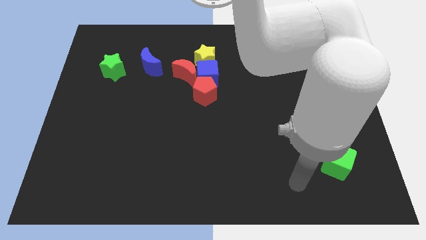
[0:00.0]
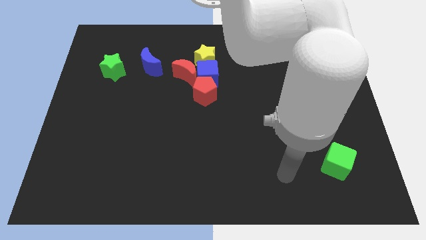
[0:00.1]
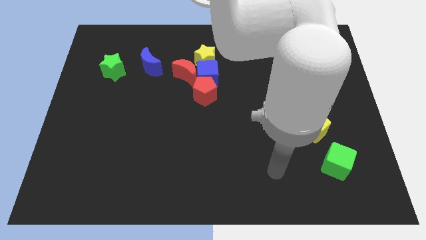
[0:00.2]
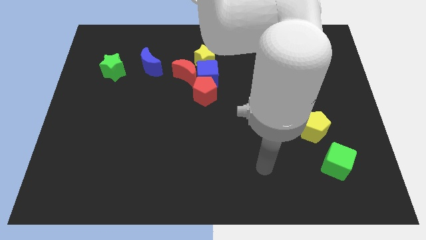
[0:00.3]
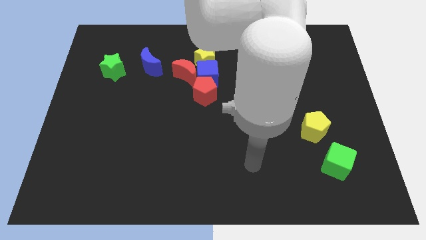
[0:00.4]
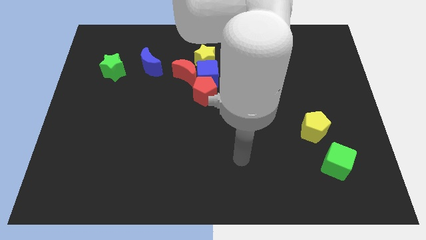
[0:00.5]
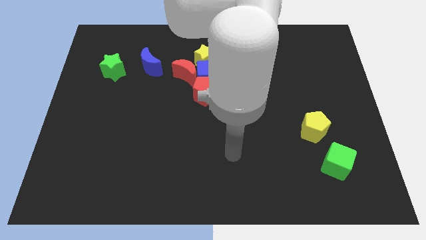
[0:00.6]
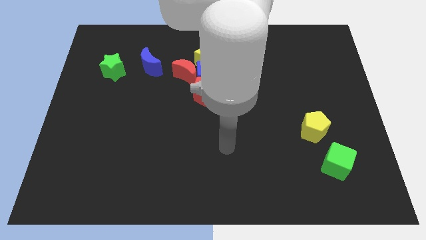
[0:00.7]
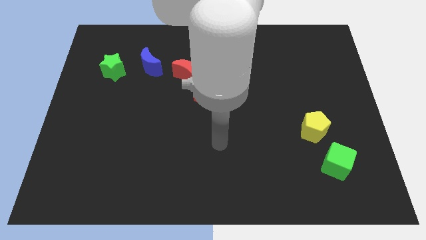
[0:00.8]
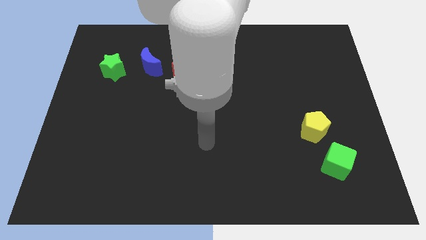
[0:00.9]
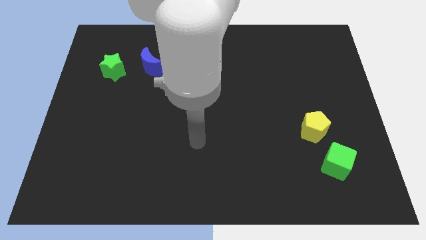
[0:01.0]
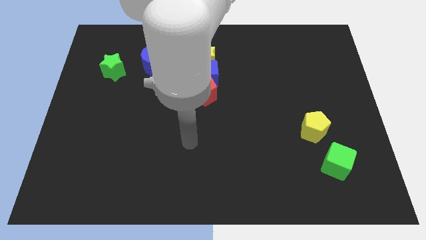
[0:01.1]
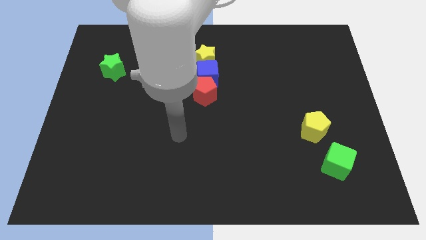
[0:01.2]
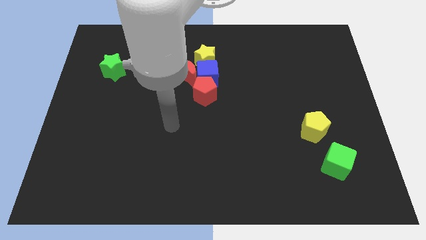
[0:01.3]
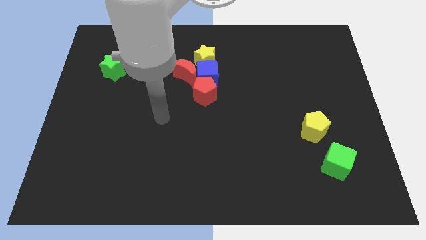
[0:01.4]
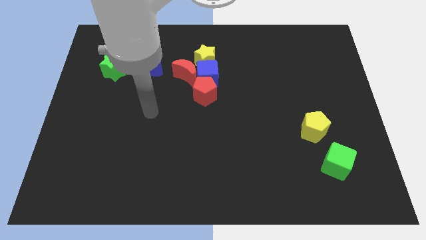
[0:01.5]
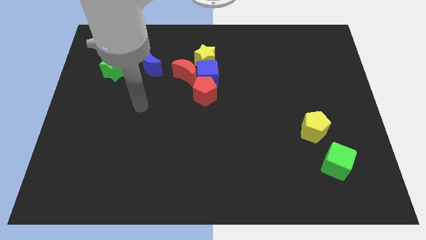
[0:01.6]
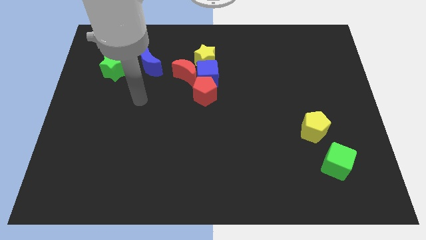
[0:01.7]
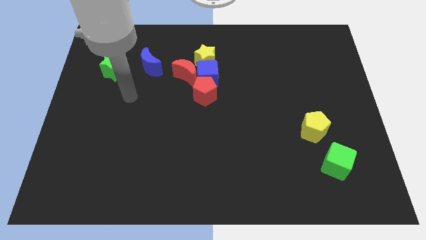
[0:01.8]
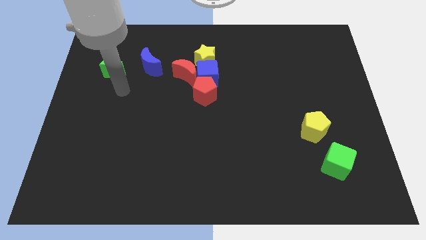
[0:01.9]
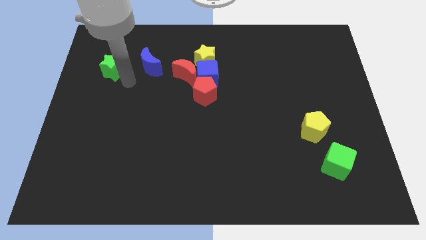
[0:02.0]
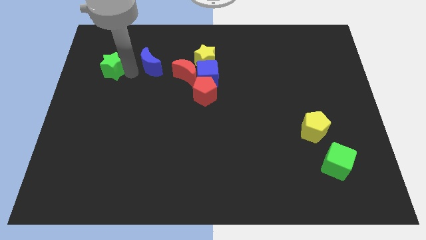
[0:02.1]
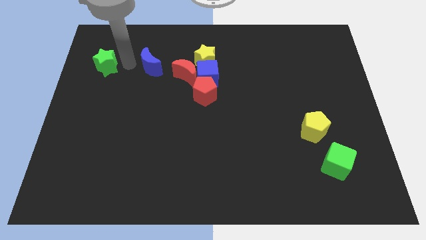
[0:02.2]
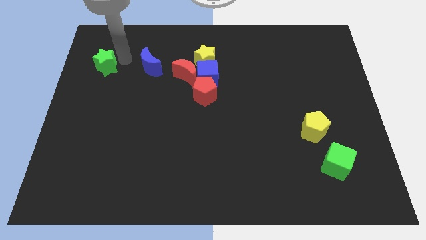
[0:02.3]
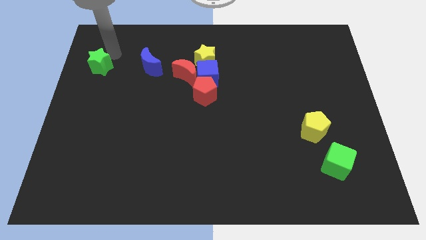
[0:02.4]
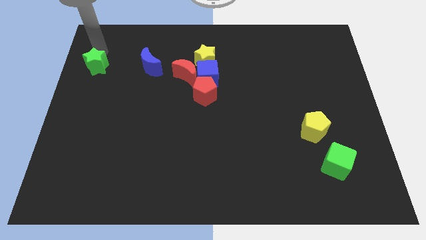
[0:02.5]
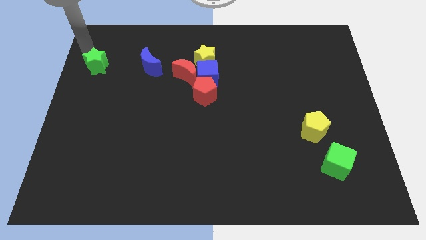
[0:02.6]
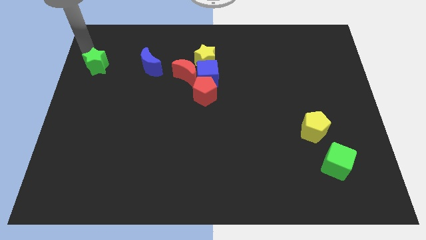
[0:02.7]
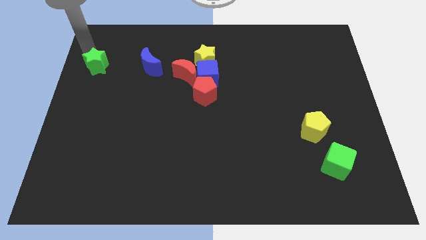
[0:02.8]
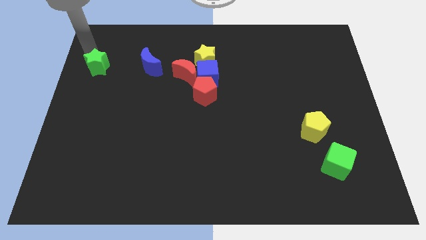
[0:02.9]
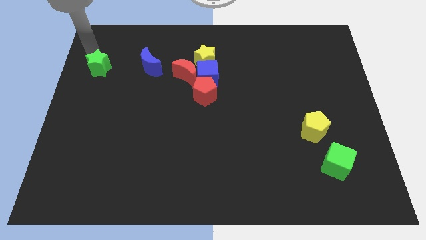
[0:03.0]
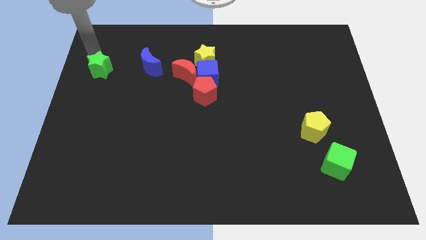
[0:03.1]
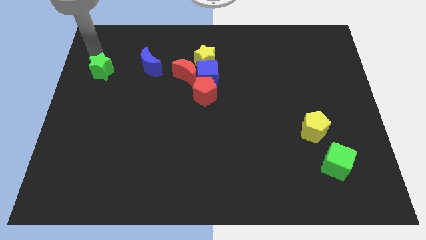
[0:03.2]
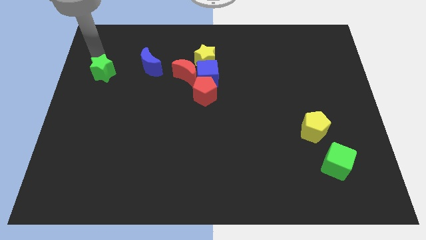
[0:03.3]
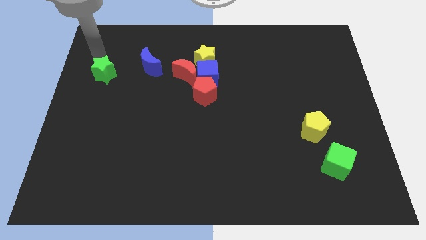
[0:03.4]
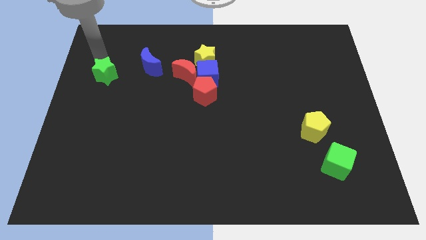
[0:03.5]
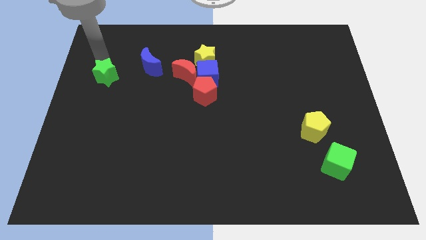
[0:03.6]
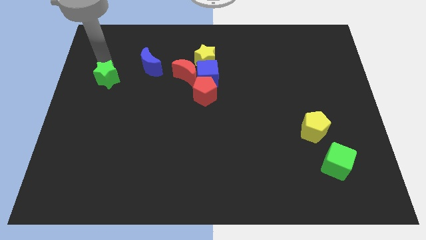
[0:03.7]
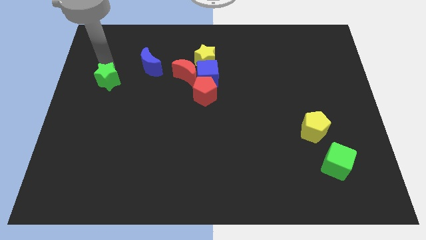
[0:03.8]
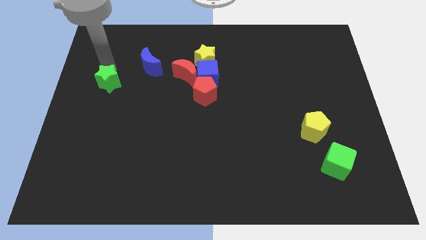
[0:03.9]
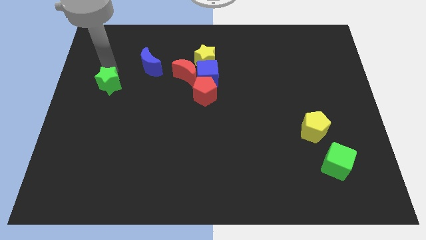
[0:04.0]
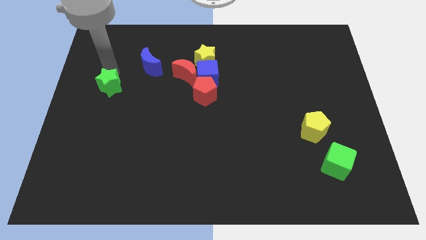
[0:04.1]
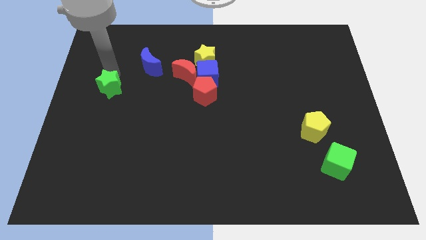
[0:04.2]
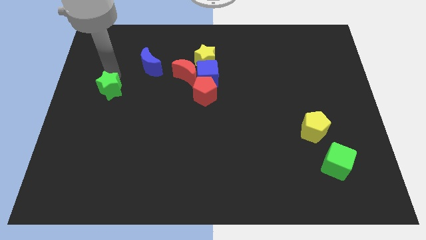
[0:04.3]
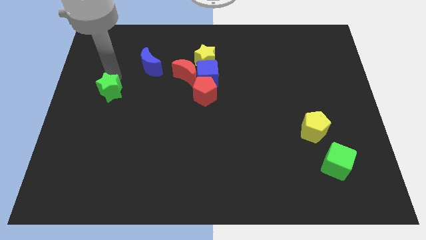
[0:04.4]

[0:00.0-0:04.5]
move the green star a bit down

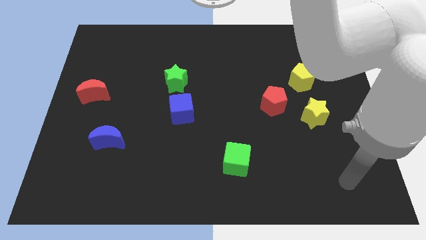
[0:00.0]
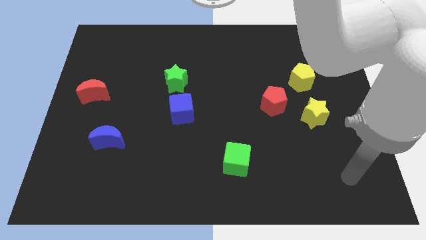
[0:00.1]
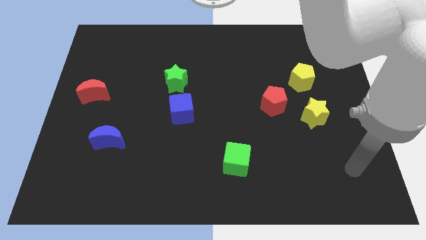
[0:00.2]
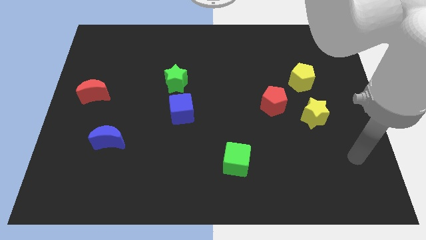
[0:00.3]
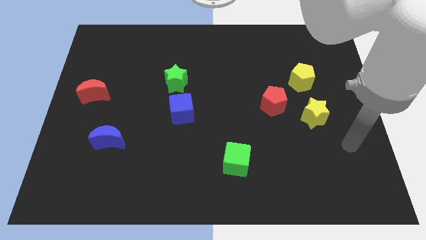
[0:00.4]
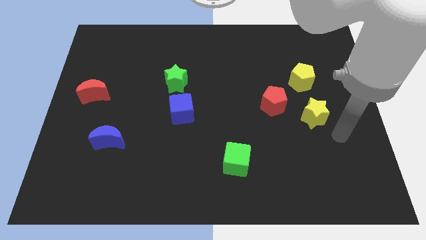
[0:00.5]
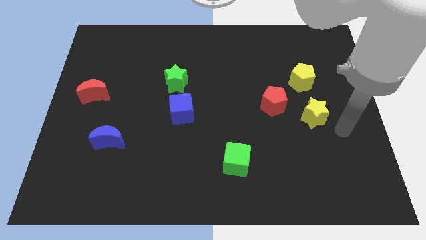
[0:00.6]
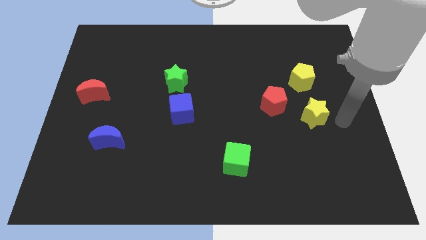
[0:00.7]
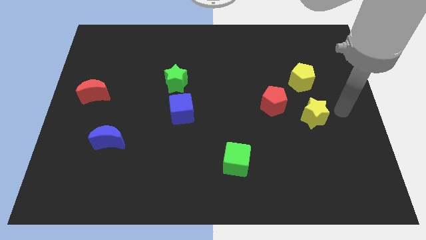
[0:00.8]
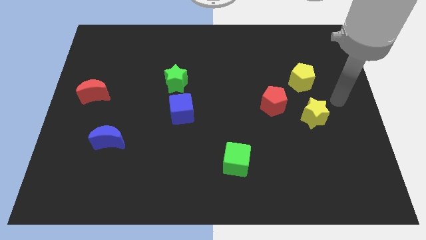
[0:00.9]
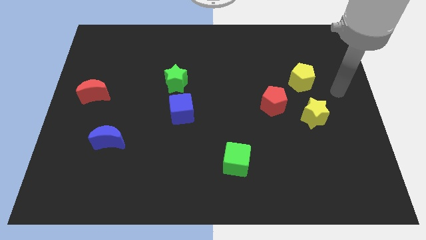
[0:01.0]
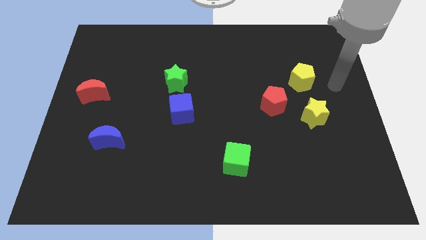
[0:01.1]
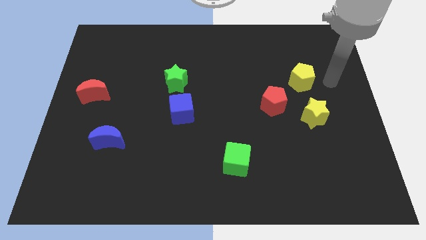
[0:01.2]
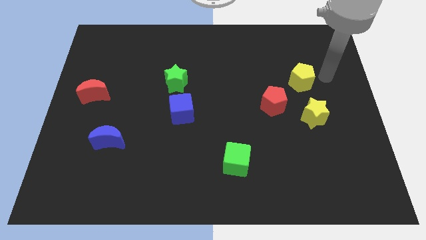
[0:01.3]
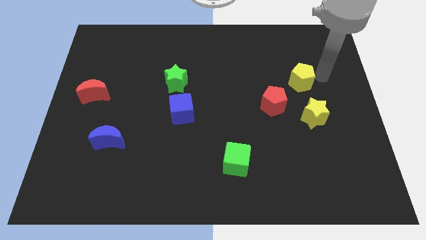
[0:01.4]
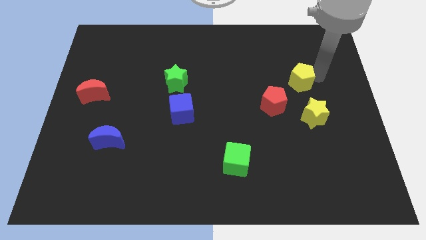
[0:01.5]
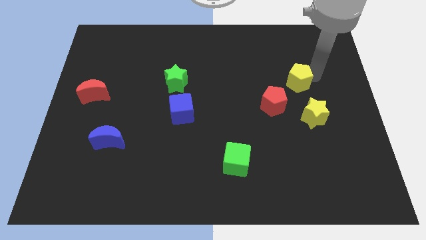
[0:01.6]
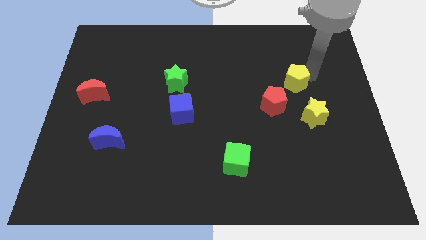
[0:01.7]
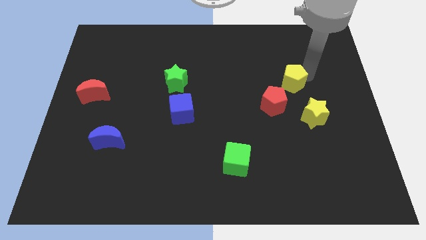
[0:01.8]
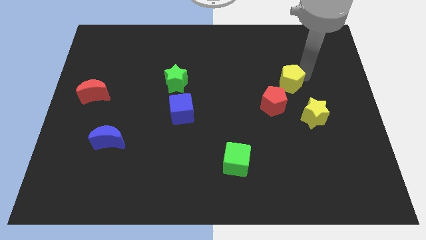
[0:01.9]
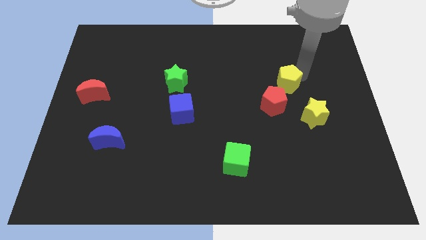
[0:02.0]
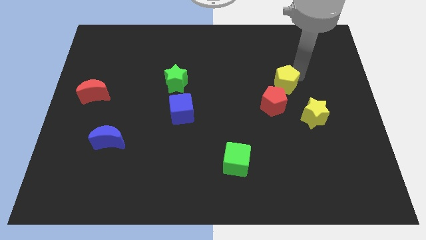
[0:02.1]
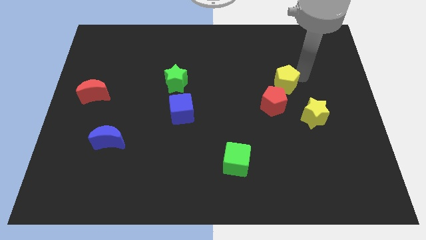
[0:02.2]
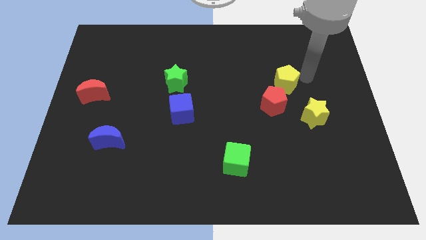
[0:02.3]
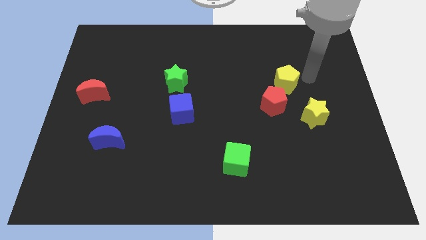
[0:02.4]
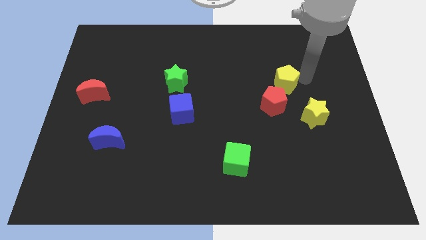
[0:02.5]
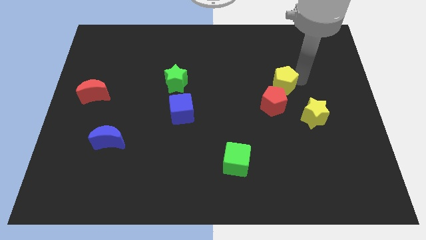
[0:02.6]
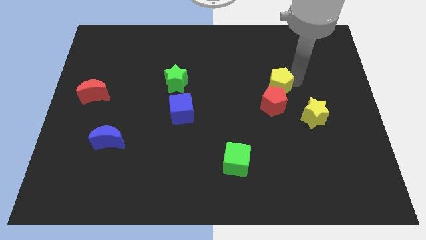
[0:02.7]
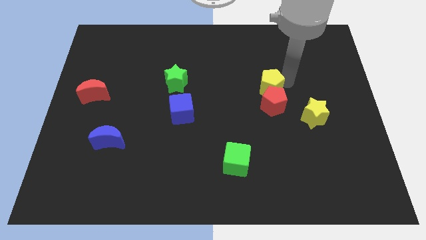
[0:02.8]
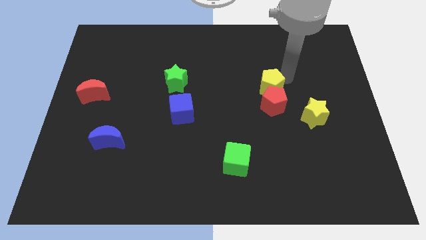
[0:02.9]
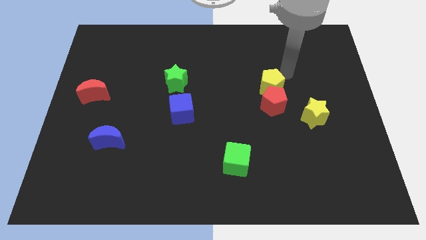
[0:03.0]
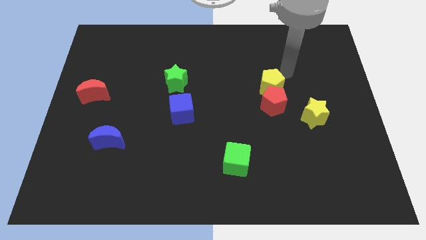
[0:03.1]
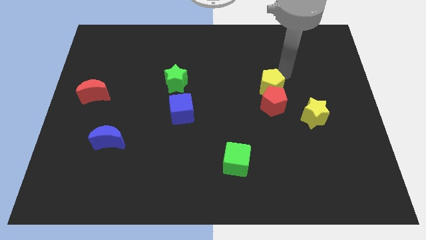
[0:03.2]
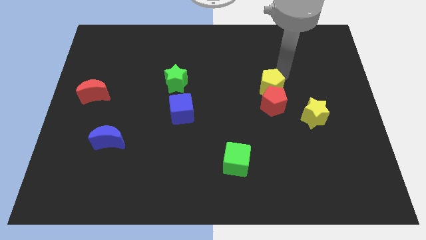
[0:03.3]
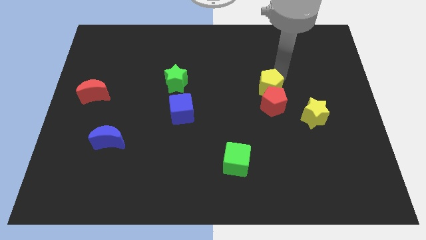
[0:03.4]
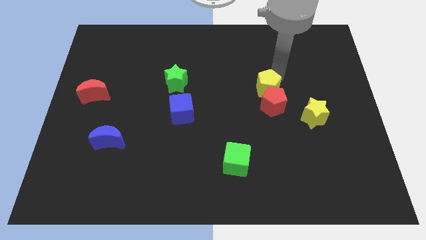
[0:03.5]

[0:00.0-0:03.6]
slide the yellow pentagon diagonally down and left a little bit

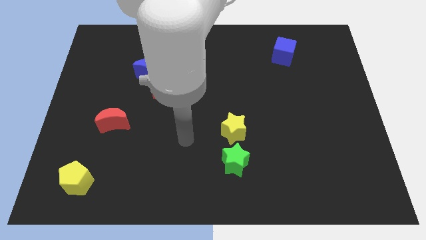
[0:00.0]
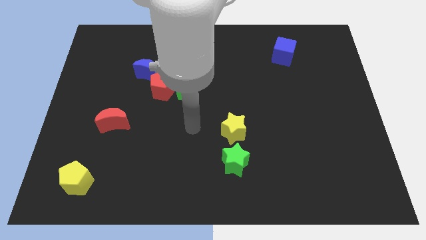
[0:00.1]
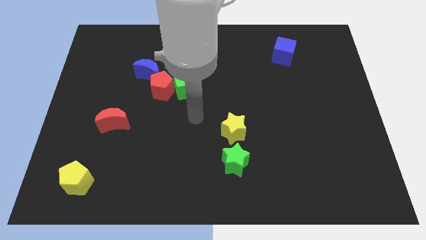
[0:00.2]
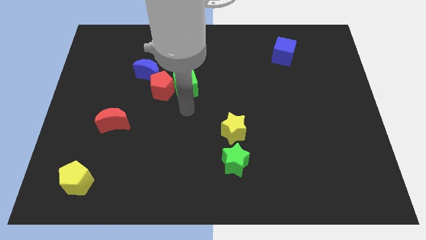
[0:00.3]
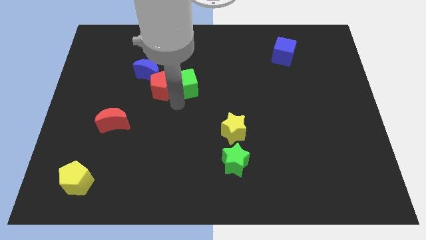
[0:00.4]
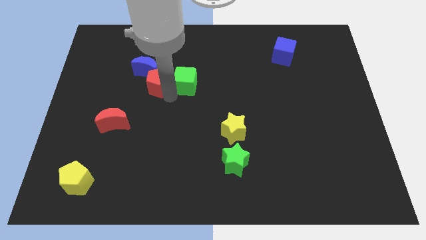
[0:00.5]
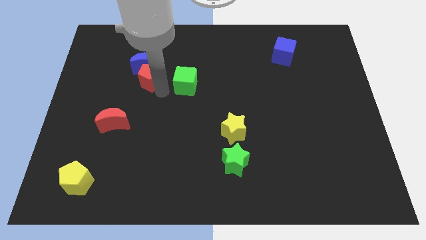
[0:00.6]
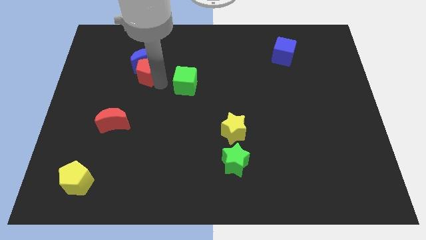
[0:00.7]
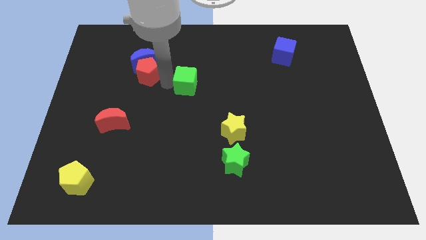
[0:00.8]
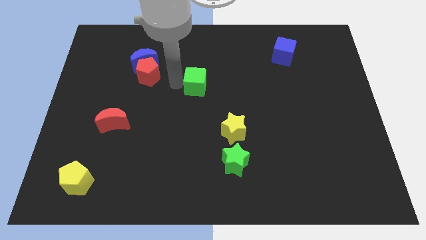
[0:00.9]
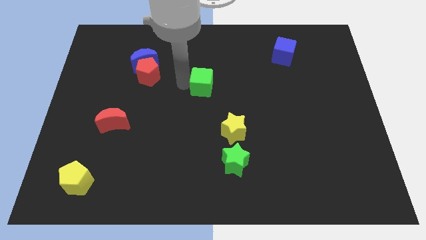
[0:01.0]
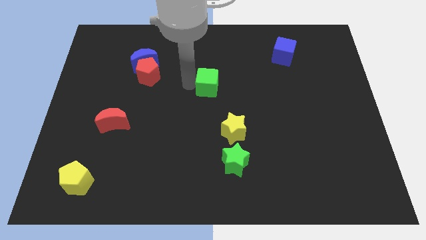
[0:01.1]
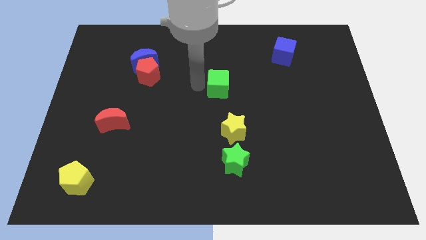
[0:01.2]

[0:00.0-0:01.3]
move the green cube a little to the right
